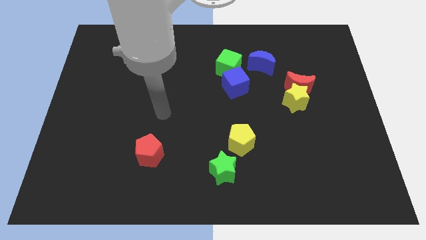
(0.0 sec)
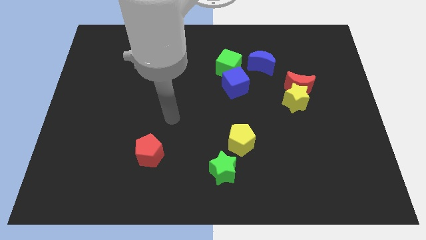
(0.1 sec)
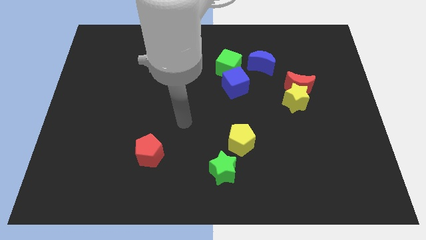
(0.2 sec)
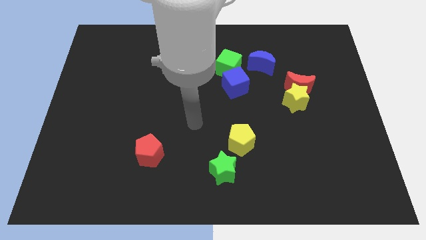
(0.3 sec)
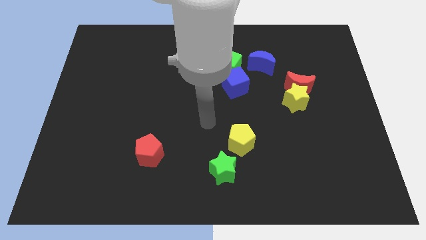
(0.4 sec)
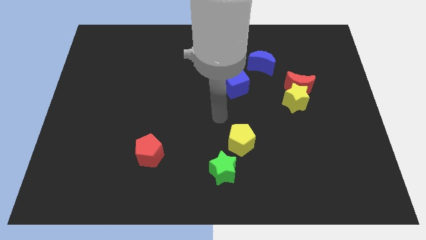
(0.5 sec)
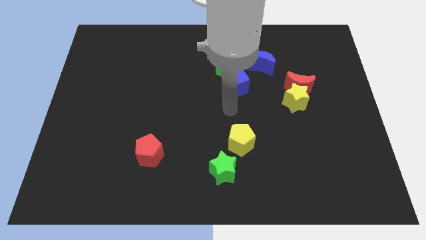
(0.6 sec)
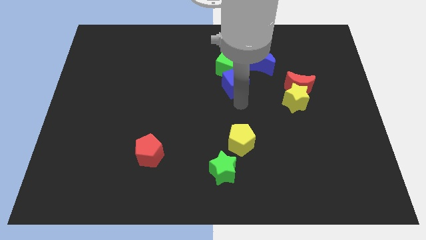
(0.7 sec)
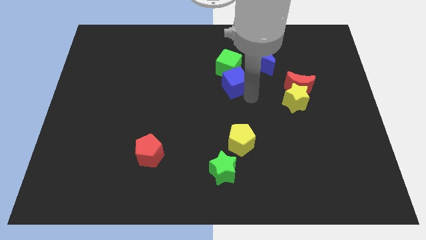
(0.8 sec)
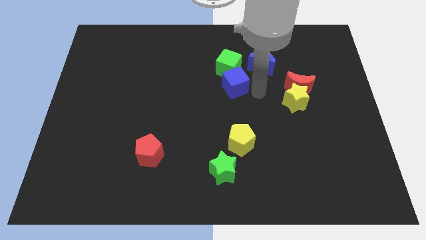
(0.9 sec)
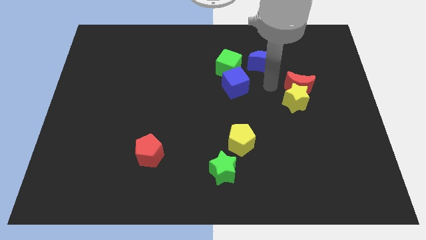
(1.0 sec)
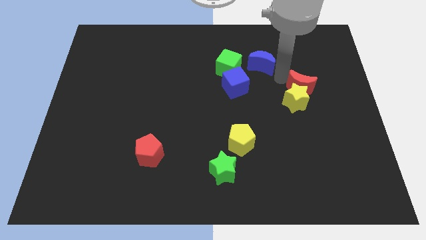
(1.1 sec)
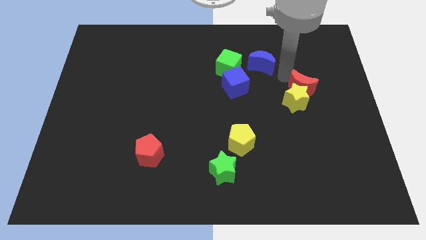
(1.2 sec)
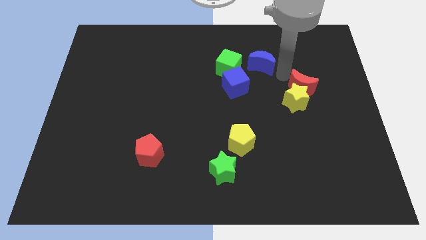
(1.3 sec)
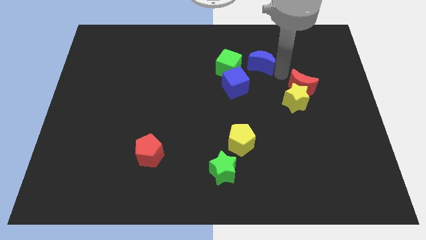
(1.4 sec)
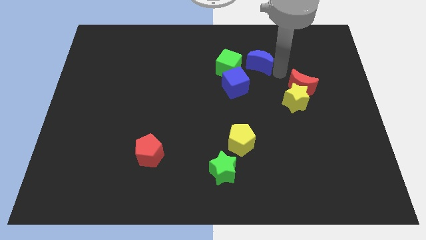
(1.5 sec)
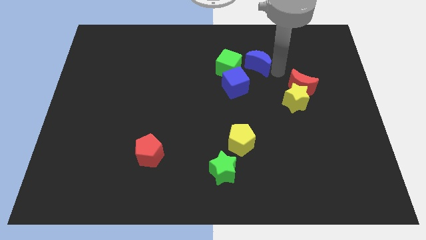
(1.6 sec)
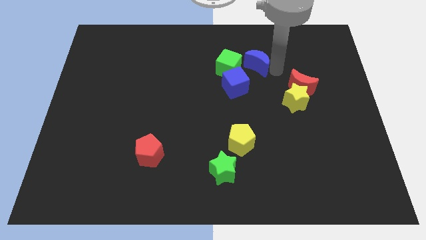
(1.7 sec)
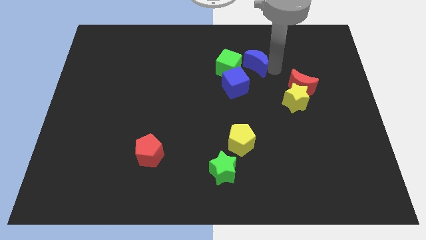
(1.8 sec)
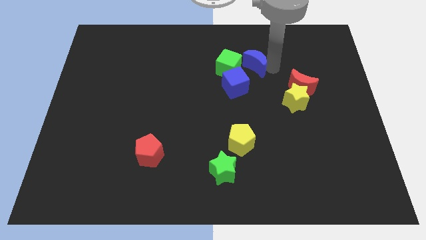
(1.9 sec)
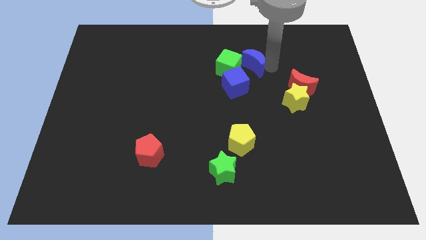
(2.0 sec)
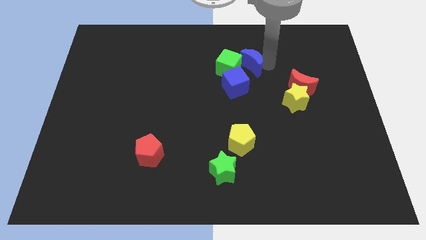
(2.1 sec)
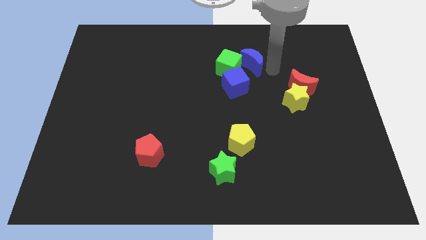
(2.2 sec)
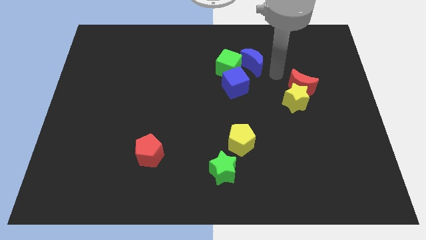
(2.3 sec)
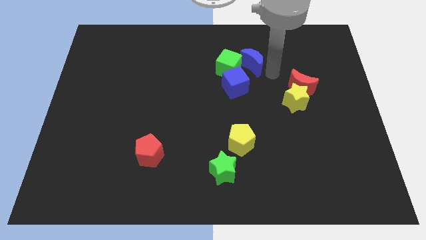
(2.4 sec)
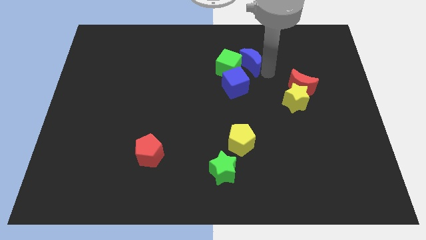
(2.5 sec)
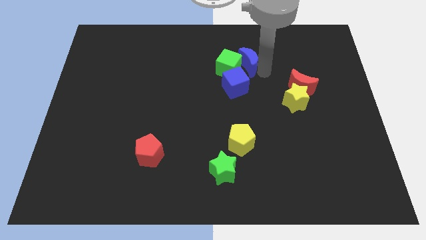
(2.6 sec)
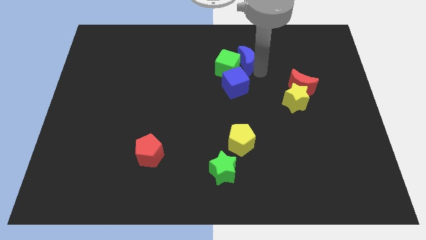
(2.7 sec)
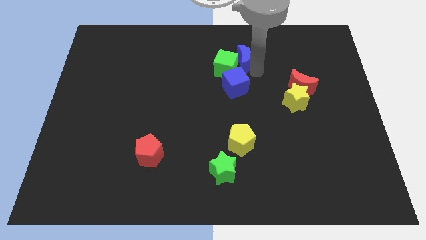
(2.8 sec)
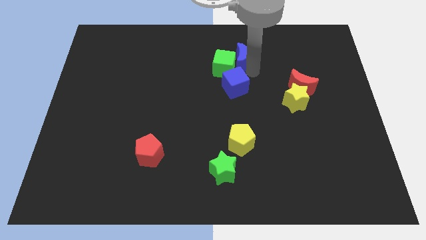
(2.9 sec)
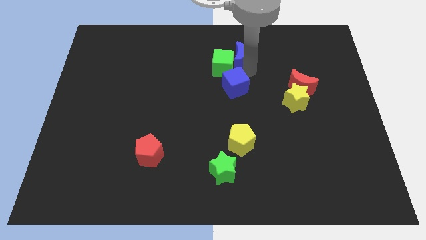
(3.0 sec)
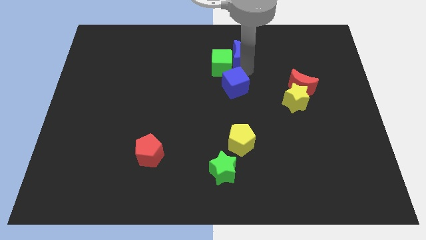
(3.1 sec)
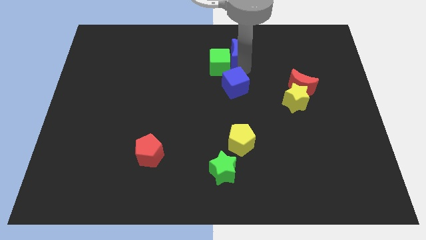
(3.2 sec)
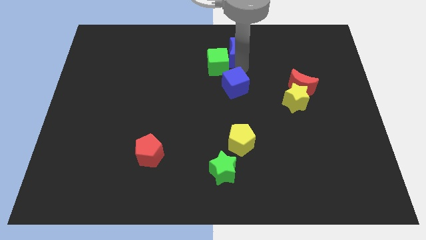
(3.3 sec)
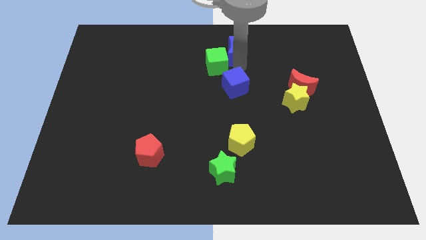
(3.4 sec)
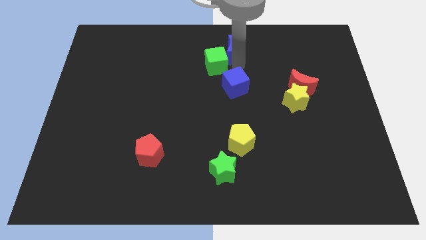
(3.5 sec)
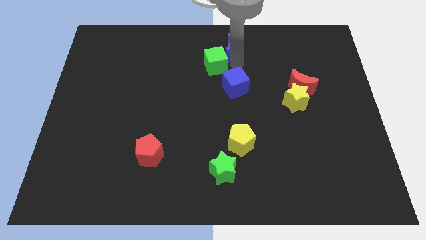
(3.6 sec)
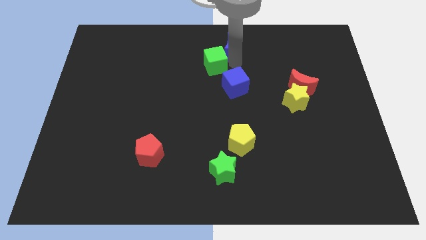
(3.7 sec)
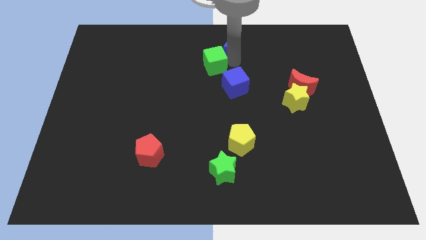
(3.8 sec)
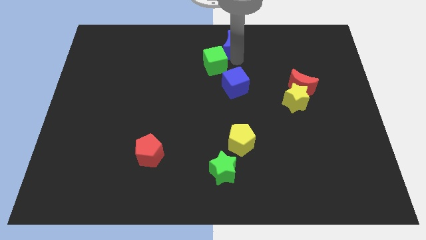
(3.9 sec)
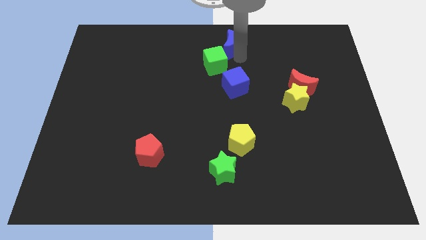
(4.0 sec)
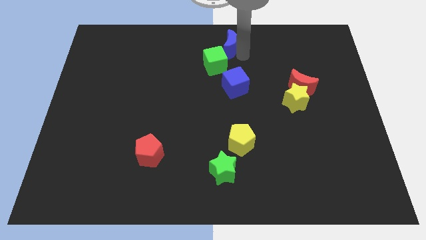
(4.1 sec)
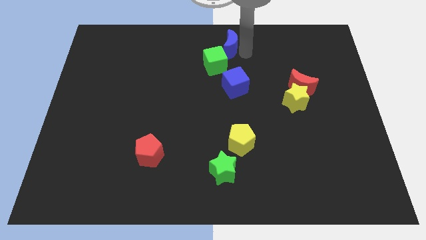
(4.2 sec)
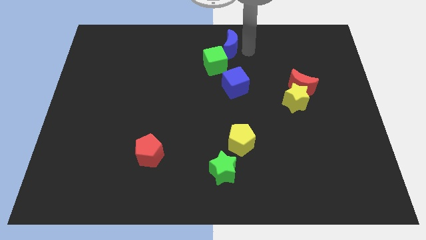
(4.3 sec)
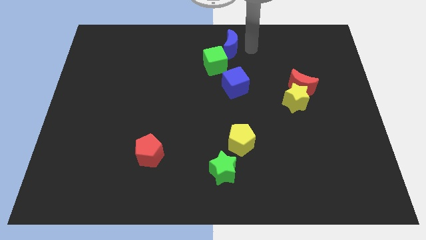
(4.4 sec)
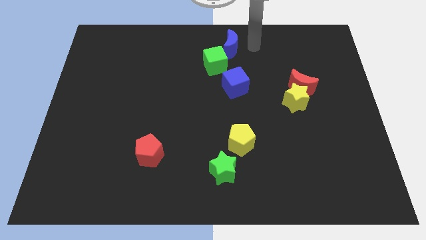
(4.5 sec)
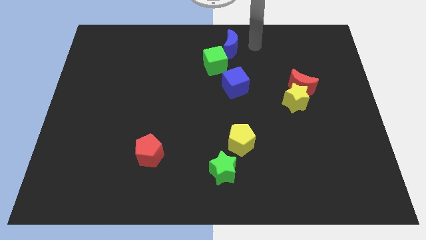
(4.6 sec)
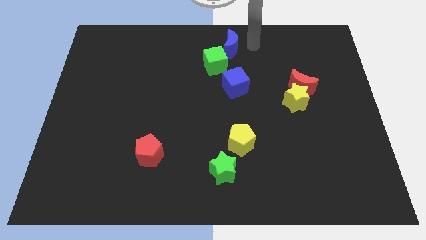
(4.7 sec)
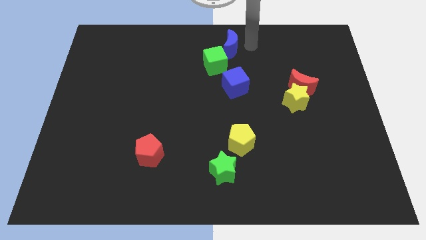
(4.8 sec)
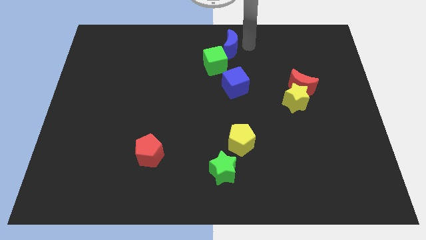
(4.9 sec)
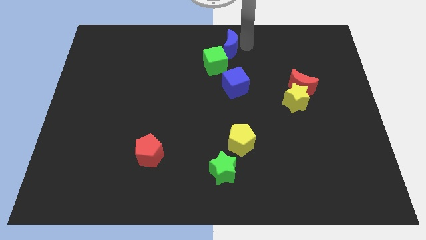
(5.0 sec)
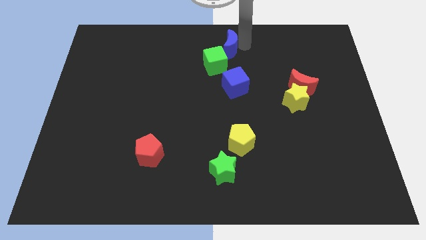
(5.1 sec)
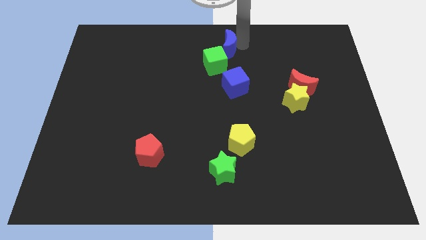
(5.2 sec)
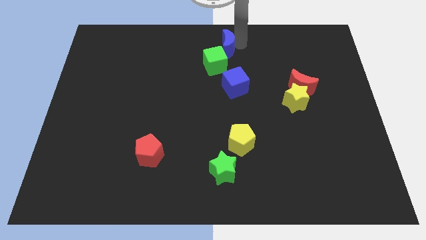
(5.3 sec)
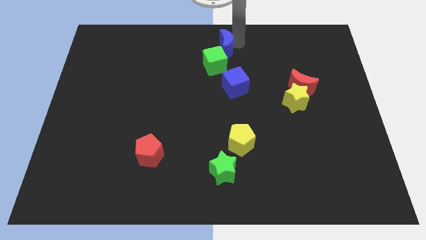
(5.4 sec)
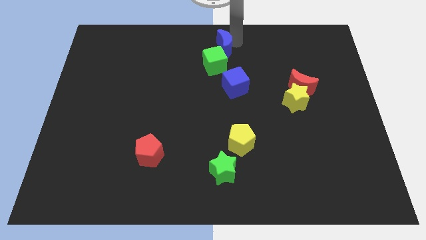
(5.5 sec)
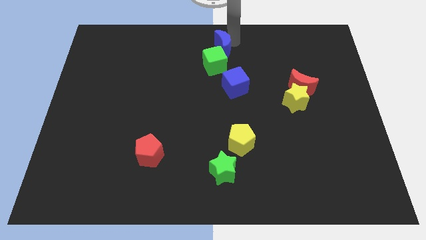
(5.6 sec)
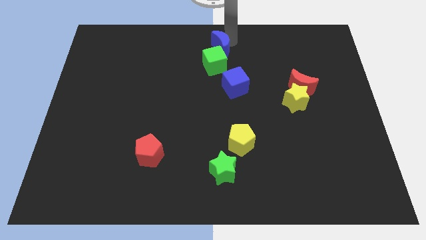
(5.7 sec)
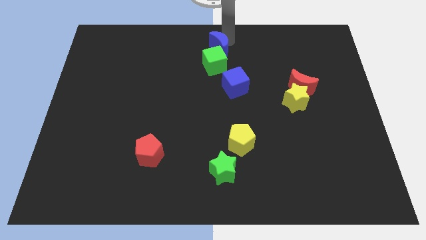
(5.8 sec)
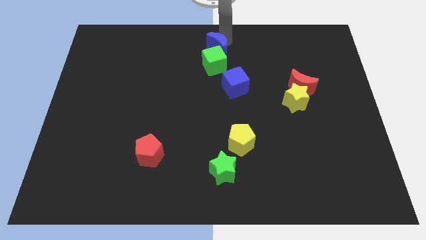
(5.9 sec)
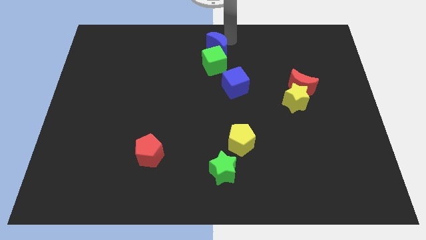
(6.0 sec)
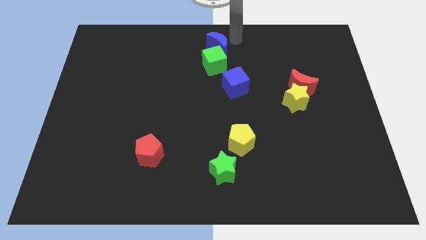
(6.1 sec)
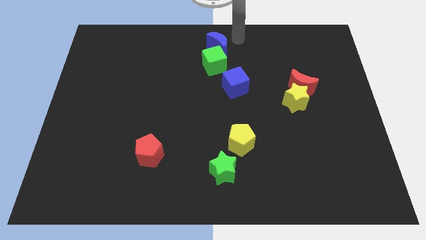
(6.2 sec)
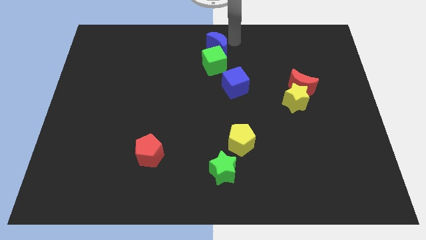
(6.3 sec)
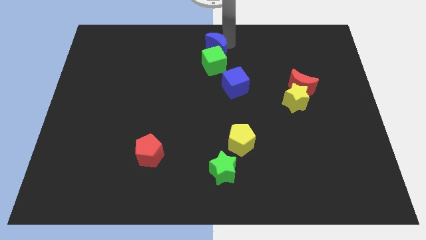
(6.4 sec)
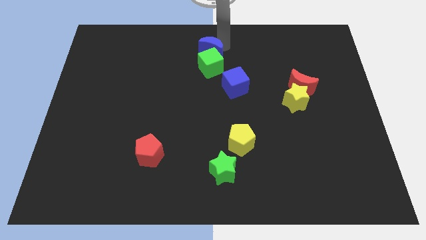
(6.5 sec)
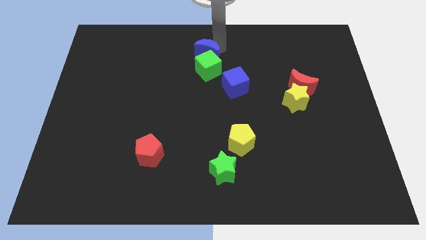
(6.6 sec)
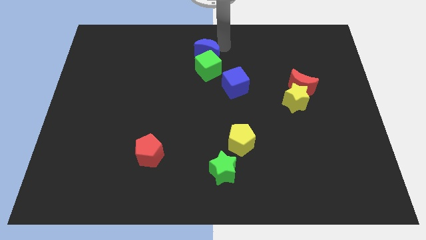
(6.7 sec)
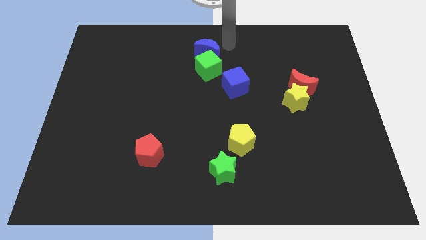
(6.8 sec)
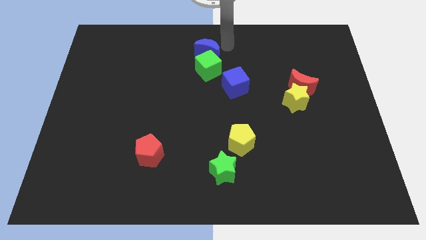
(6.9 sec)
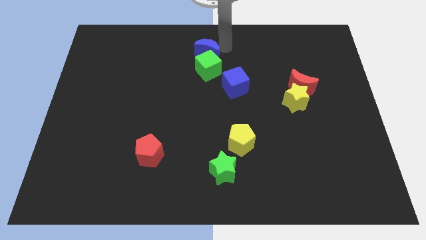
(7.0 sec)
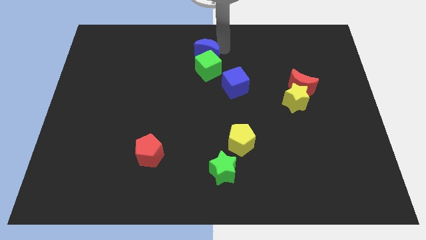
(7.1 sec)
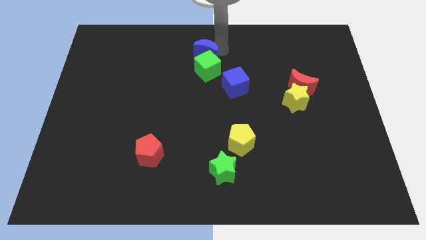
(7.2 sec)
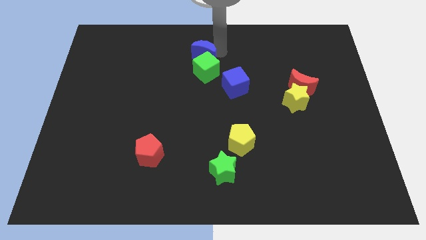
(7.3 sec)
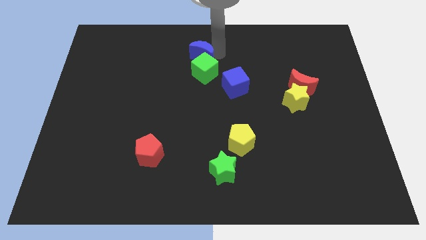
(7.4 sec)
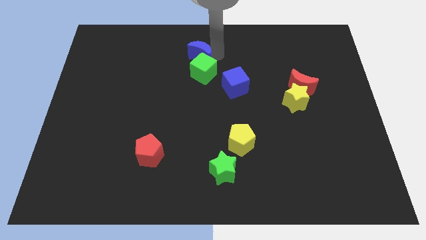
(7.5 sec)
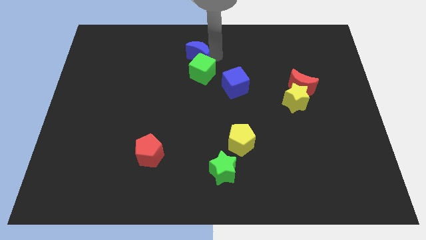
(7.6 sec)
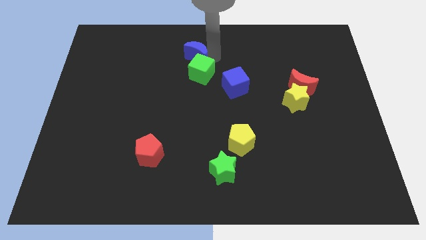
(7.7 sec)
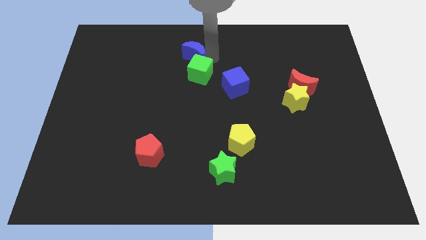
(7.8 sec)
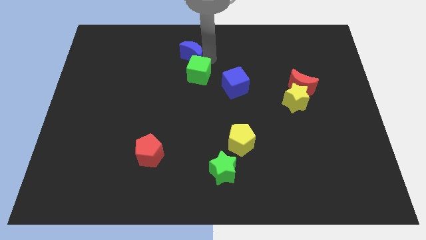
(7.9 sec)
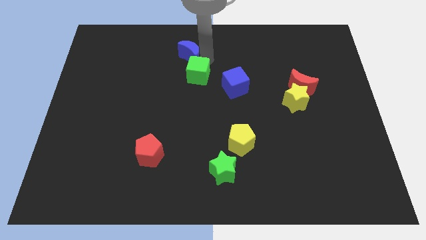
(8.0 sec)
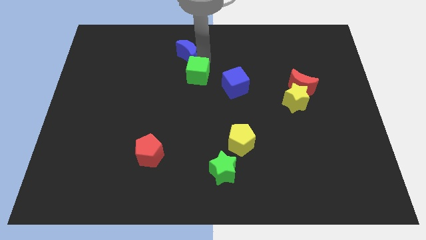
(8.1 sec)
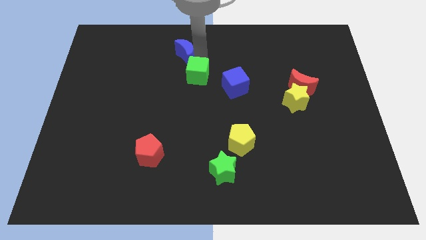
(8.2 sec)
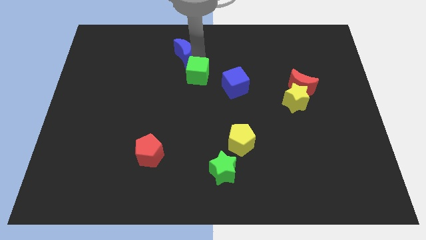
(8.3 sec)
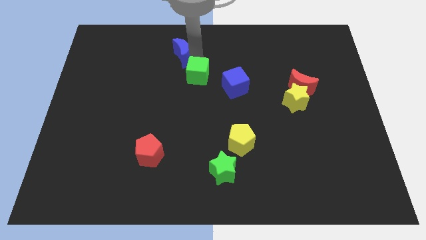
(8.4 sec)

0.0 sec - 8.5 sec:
push the blue moon to the left
